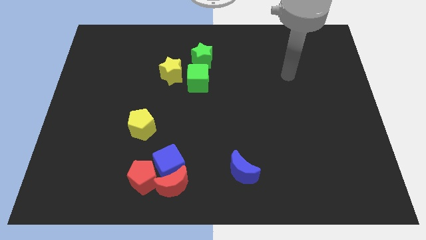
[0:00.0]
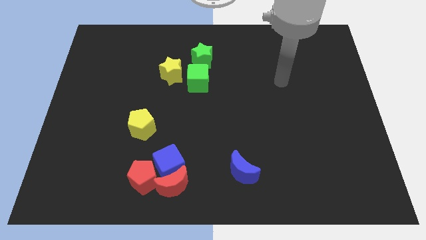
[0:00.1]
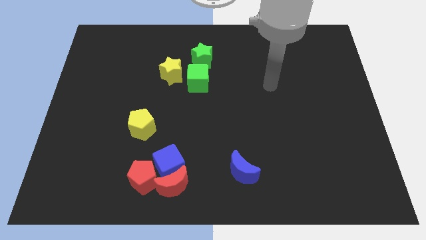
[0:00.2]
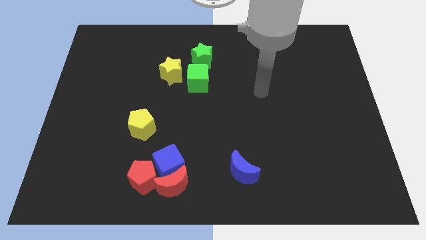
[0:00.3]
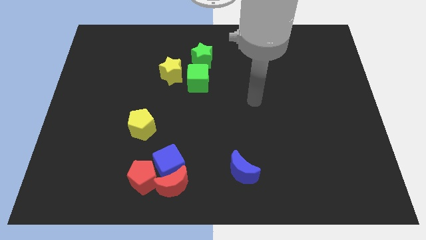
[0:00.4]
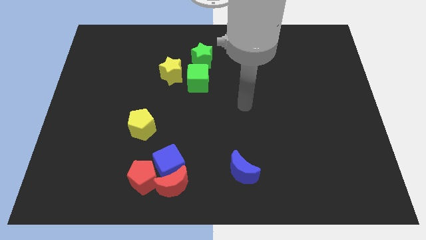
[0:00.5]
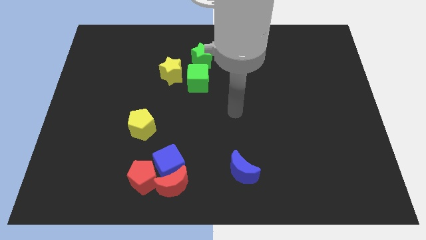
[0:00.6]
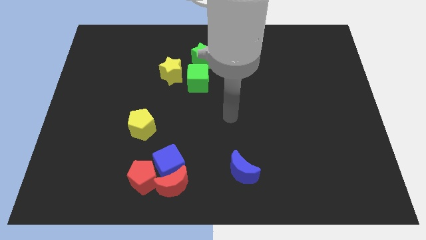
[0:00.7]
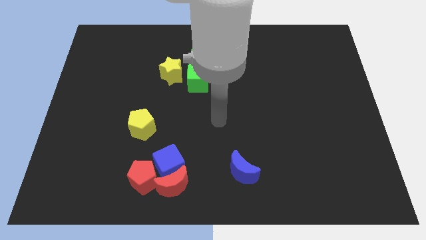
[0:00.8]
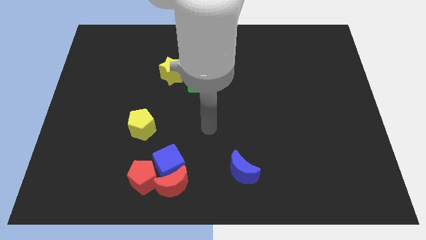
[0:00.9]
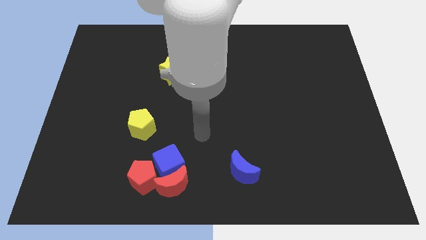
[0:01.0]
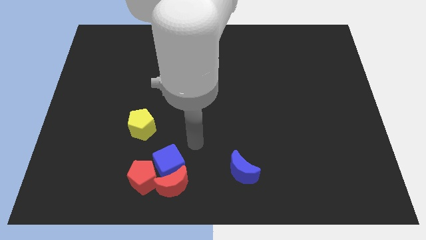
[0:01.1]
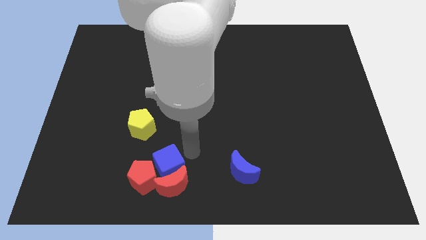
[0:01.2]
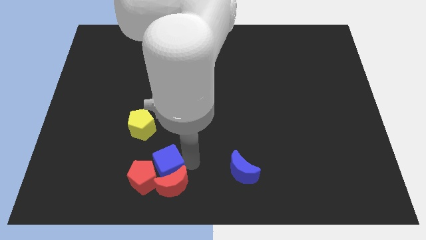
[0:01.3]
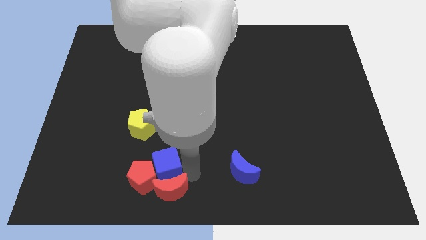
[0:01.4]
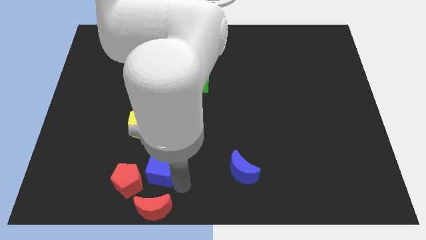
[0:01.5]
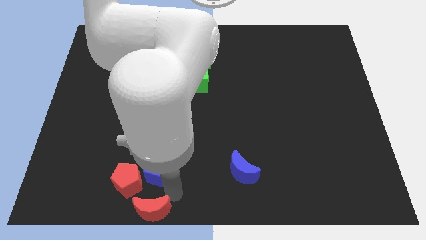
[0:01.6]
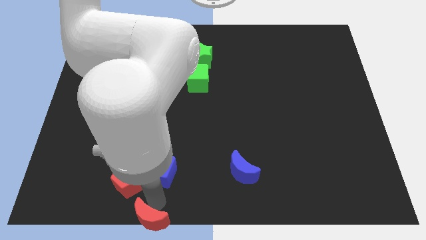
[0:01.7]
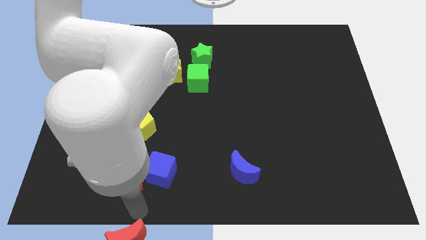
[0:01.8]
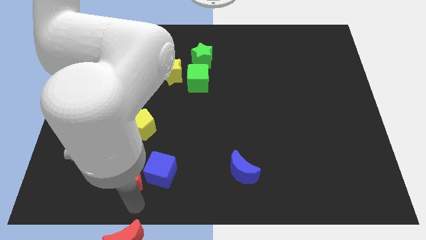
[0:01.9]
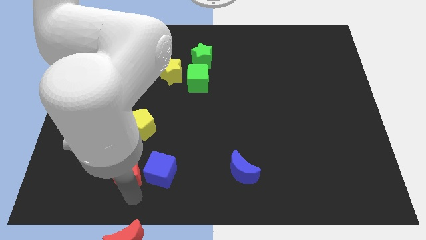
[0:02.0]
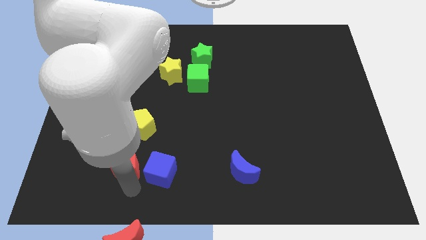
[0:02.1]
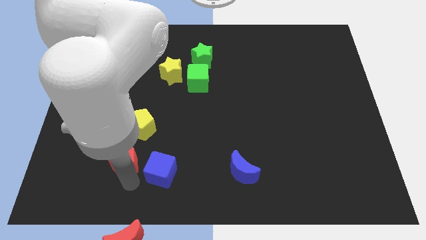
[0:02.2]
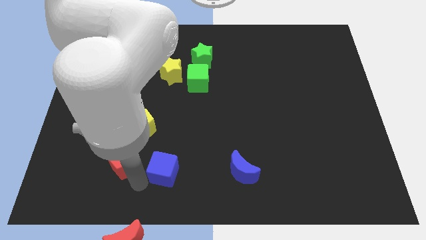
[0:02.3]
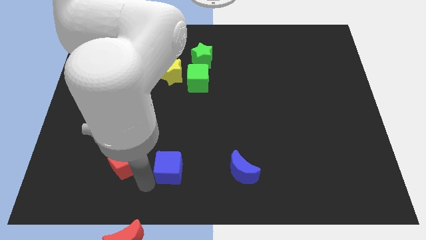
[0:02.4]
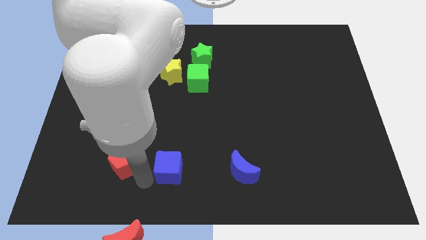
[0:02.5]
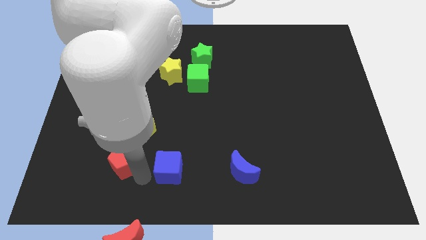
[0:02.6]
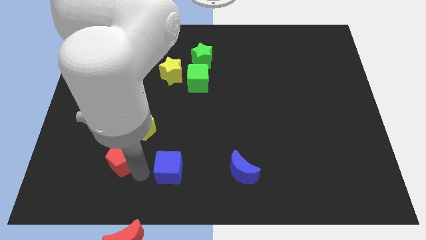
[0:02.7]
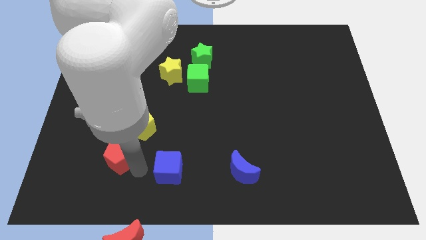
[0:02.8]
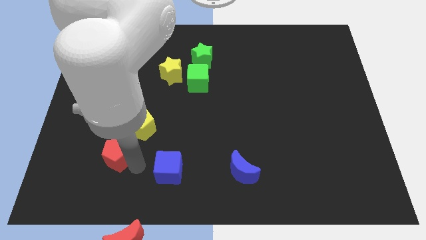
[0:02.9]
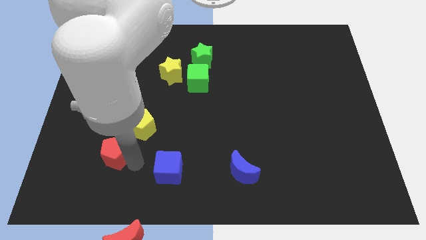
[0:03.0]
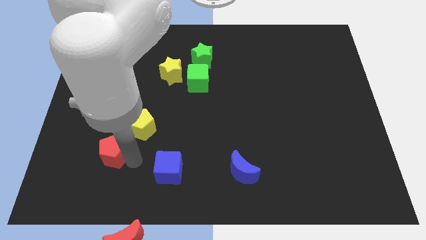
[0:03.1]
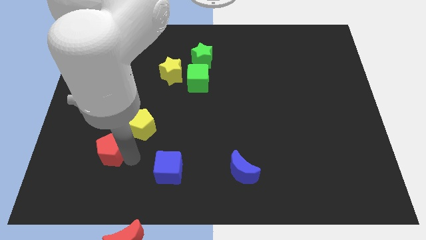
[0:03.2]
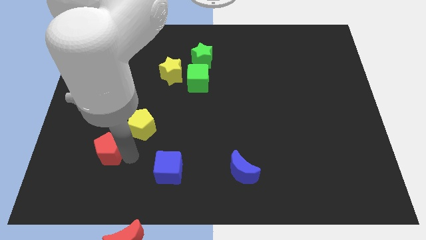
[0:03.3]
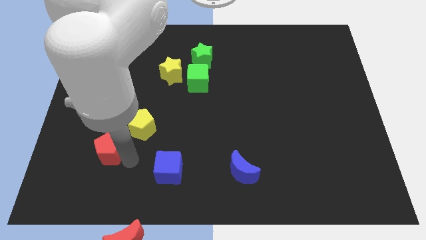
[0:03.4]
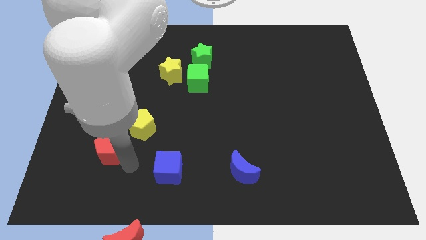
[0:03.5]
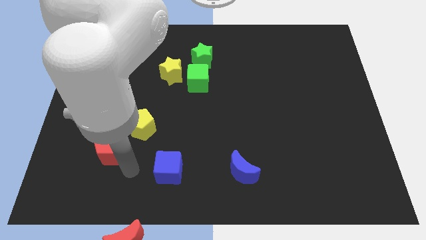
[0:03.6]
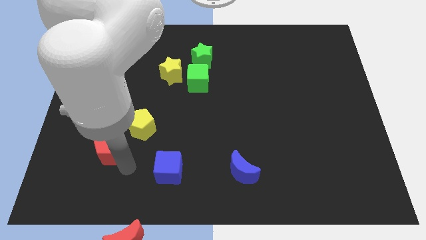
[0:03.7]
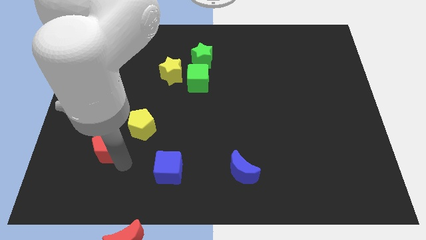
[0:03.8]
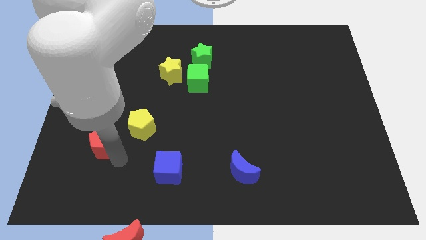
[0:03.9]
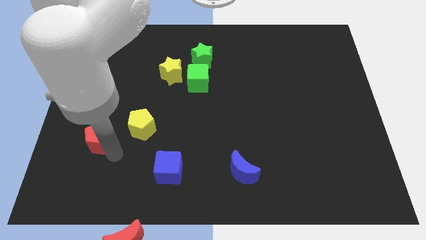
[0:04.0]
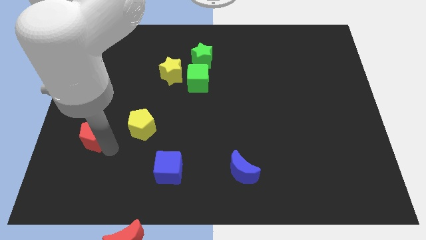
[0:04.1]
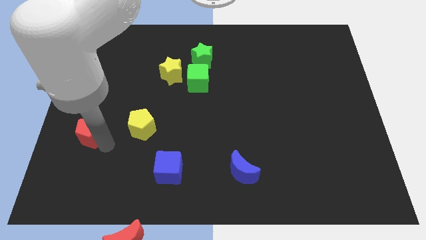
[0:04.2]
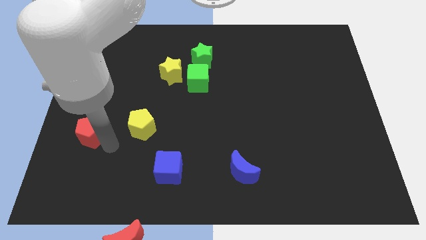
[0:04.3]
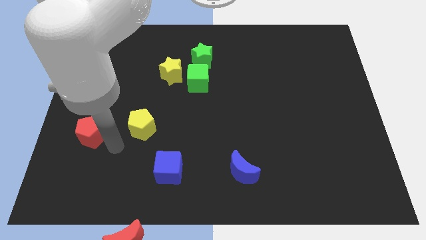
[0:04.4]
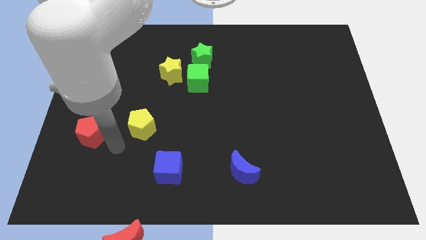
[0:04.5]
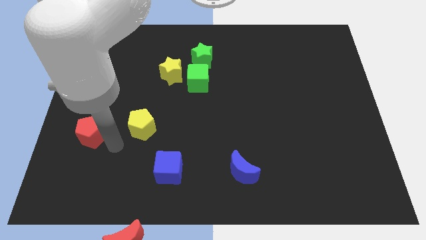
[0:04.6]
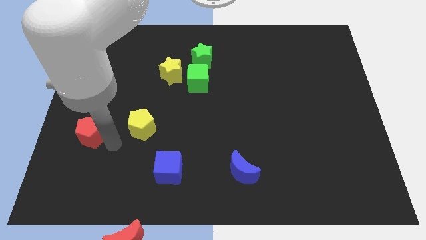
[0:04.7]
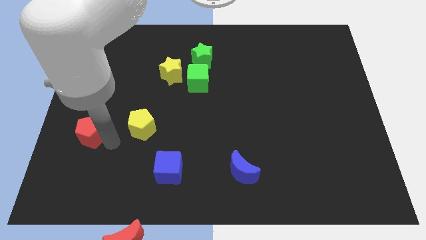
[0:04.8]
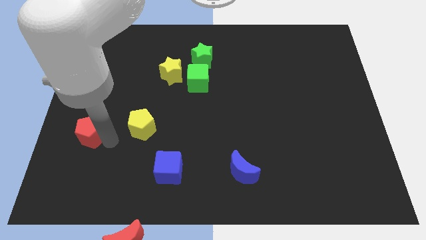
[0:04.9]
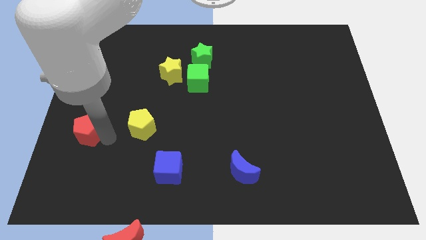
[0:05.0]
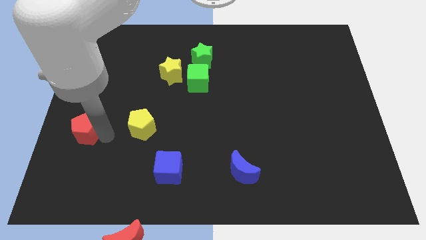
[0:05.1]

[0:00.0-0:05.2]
put the red pentagon to the center left

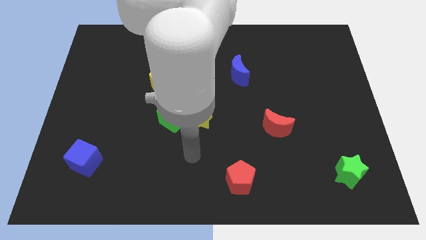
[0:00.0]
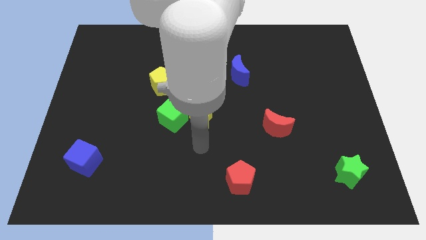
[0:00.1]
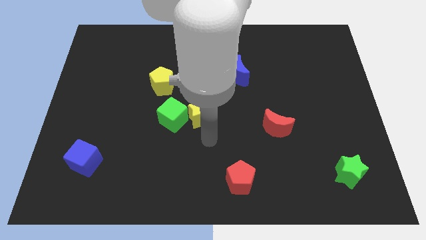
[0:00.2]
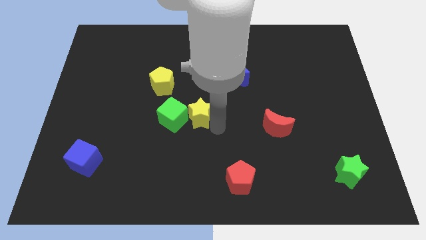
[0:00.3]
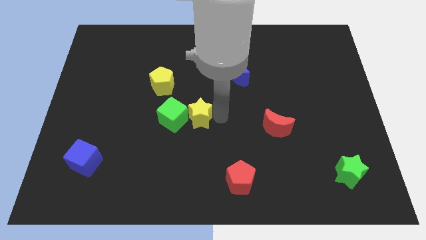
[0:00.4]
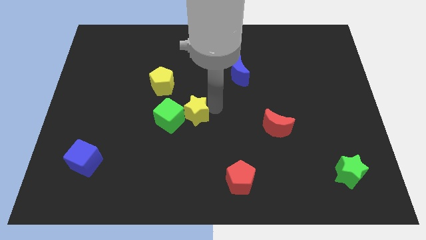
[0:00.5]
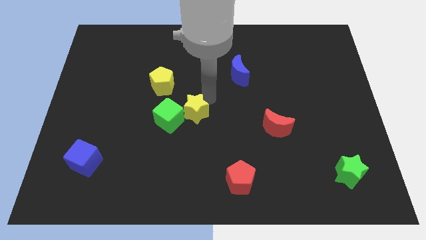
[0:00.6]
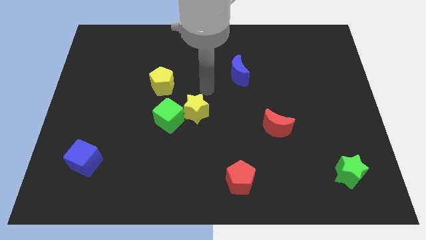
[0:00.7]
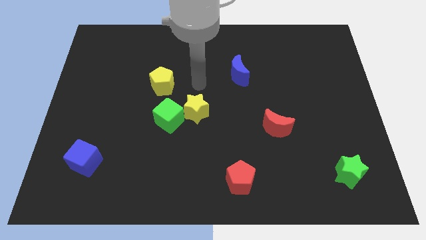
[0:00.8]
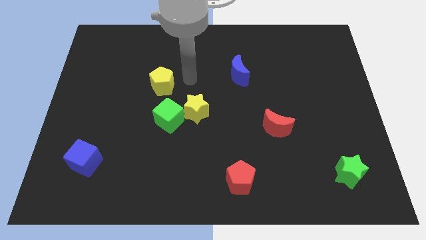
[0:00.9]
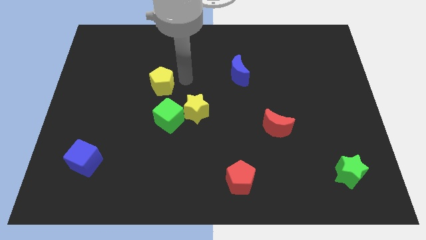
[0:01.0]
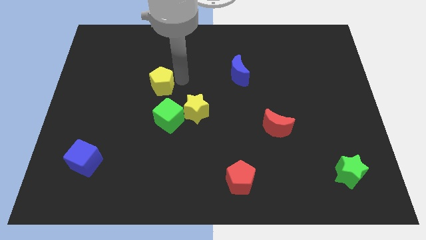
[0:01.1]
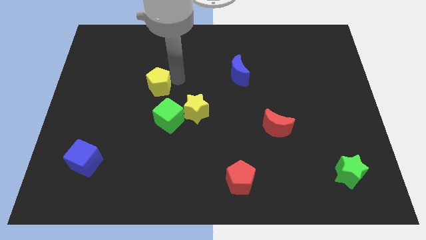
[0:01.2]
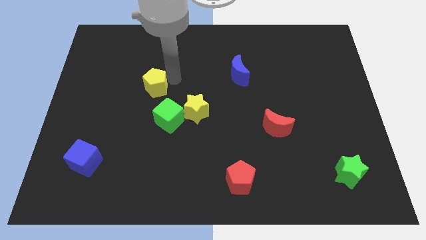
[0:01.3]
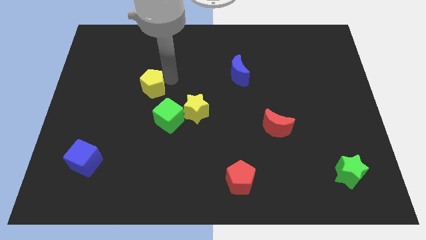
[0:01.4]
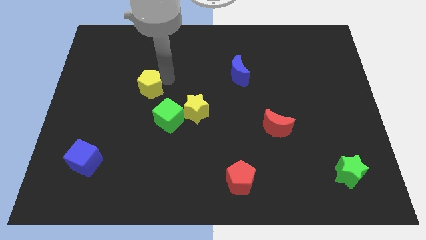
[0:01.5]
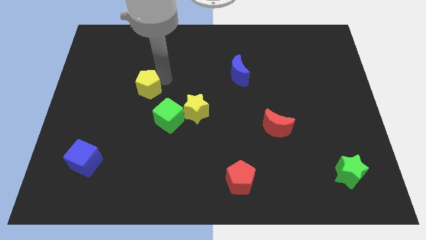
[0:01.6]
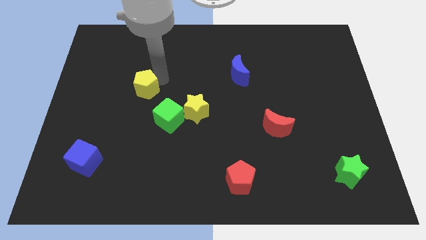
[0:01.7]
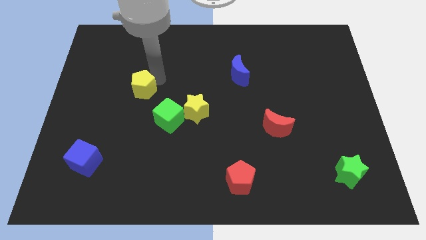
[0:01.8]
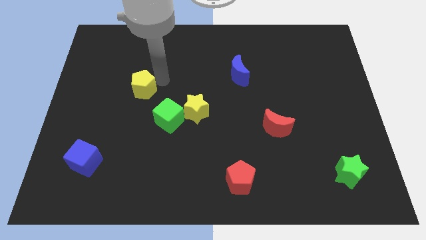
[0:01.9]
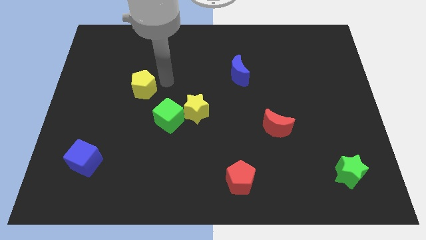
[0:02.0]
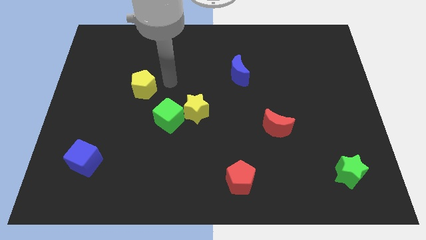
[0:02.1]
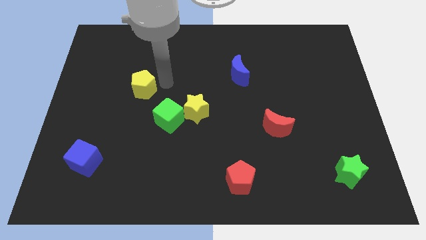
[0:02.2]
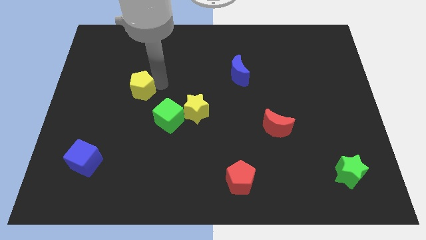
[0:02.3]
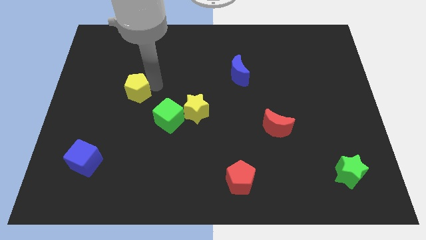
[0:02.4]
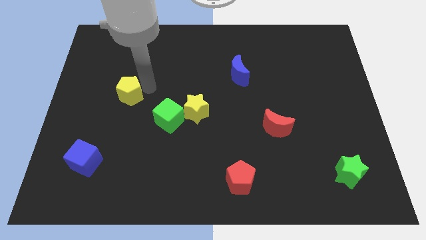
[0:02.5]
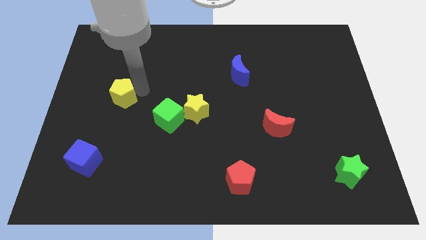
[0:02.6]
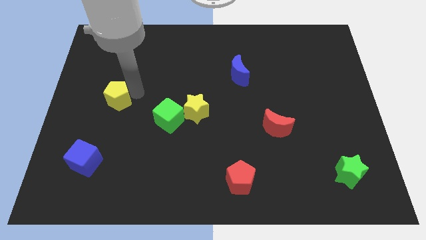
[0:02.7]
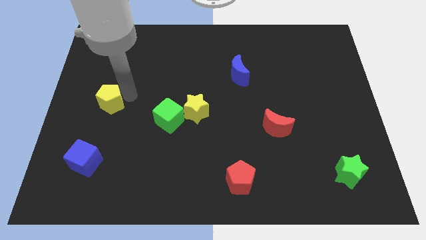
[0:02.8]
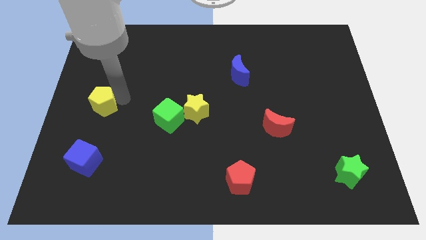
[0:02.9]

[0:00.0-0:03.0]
move the yellow pentagon to the left side
